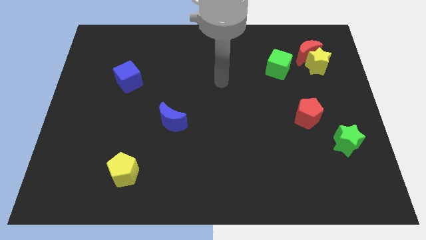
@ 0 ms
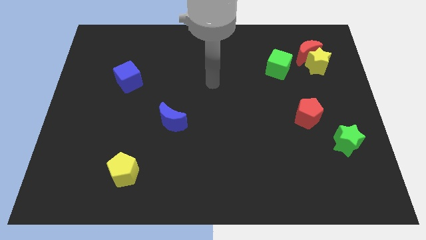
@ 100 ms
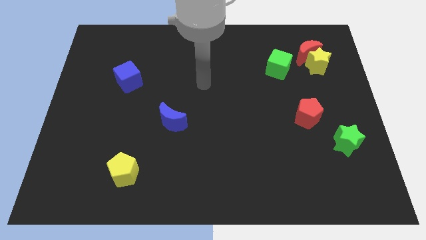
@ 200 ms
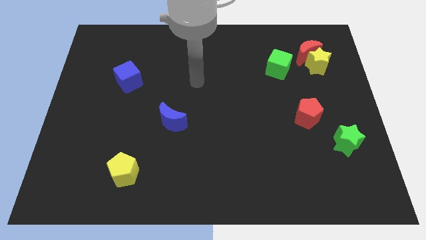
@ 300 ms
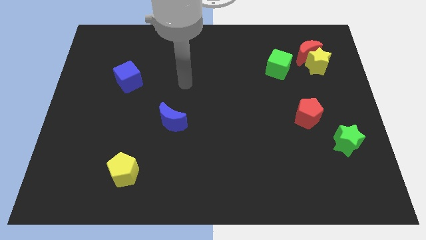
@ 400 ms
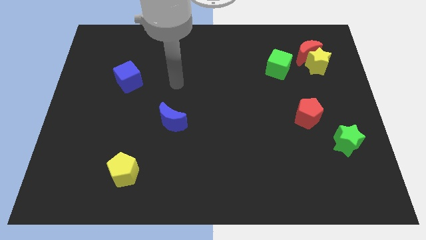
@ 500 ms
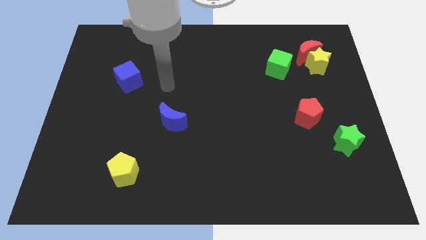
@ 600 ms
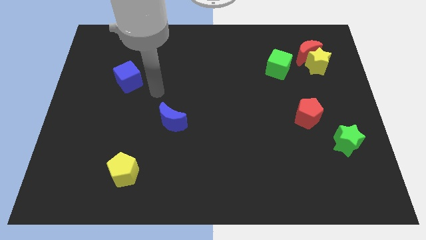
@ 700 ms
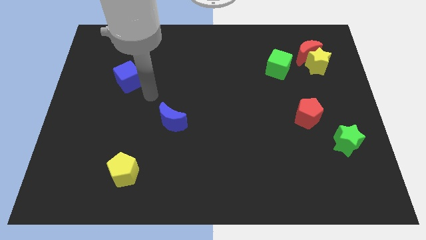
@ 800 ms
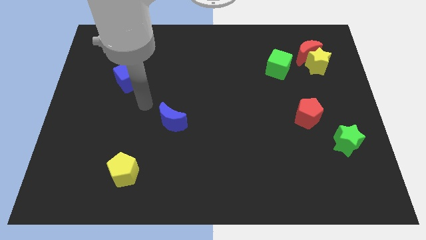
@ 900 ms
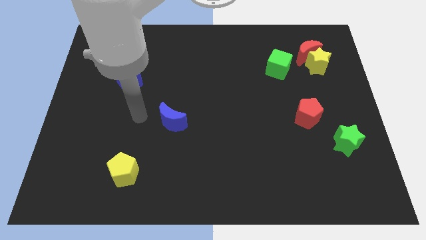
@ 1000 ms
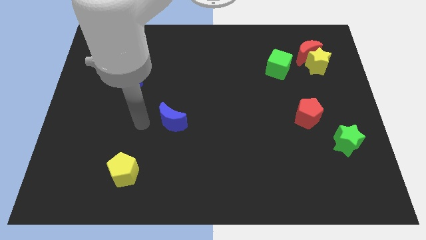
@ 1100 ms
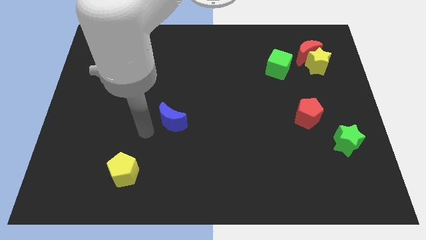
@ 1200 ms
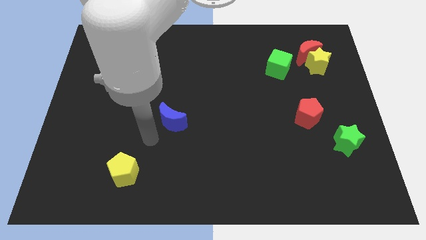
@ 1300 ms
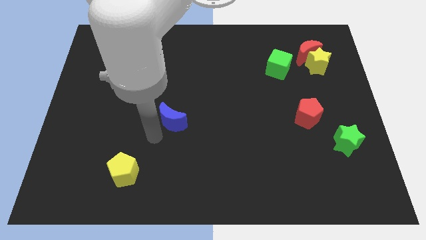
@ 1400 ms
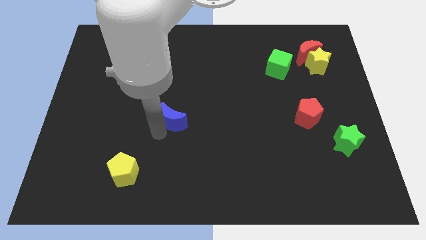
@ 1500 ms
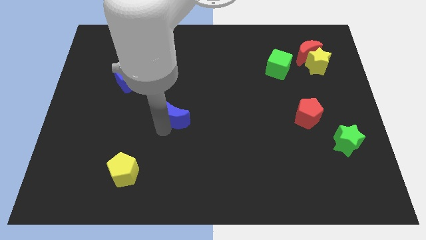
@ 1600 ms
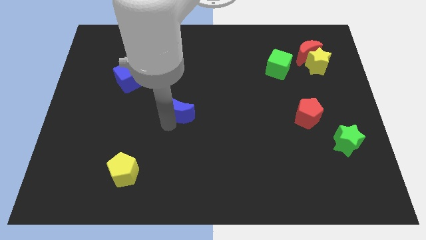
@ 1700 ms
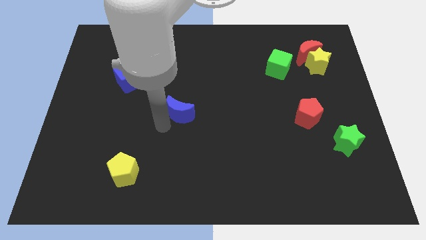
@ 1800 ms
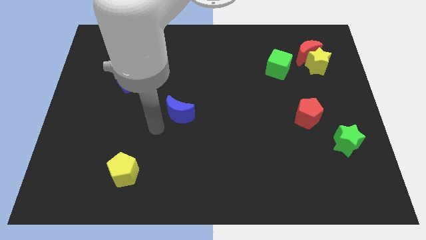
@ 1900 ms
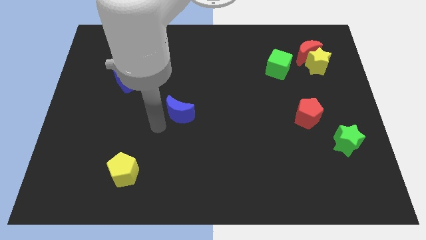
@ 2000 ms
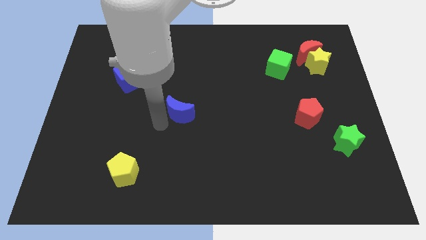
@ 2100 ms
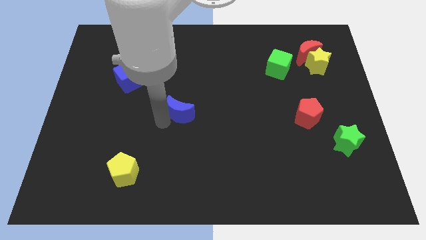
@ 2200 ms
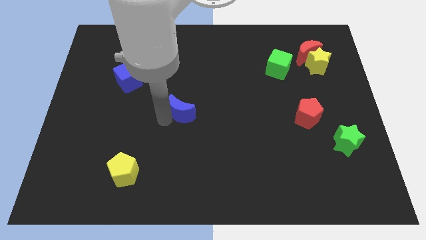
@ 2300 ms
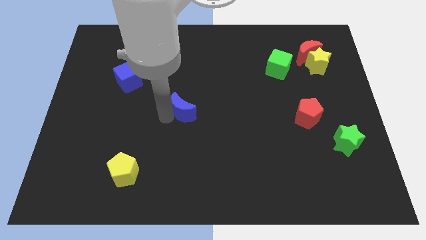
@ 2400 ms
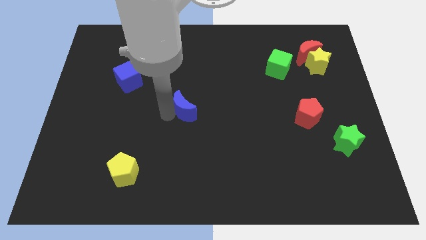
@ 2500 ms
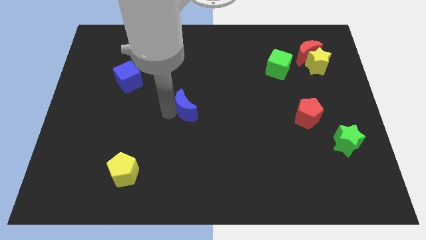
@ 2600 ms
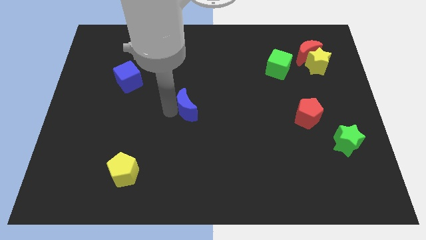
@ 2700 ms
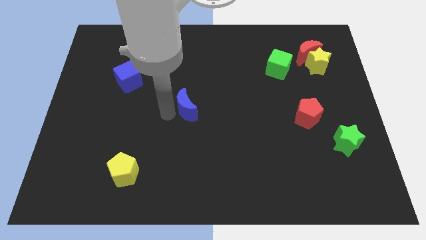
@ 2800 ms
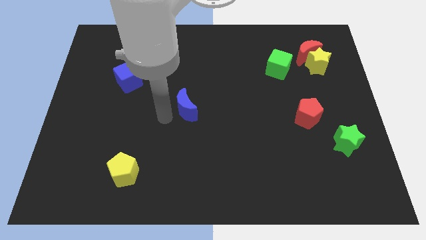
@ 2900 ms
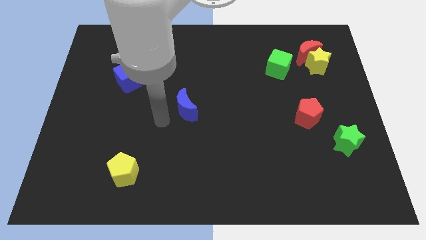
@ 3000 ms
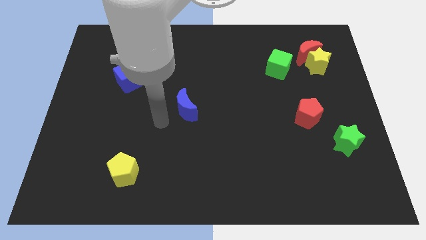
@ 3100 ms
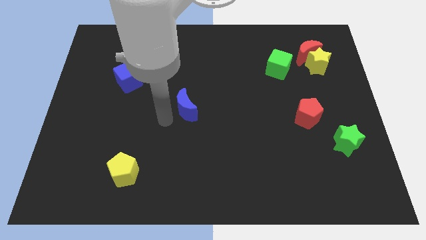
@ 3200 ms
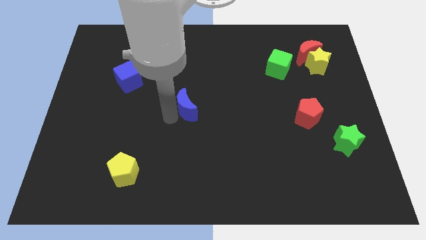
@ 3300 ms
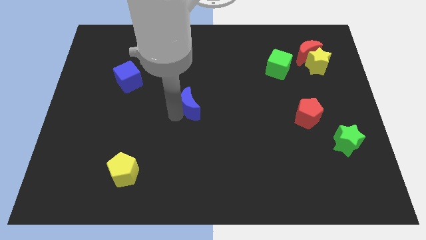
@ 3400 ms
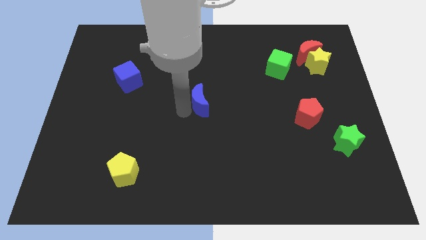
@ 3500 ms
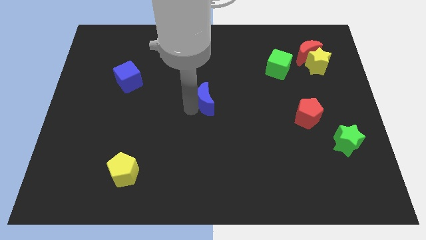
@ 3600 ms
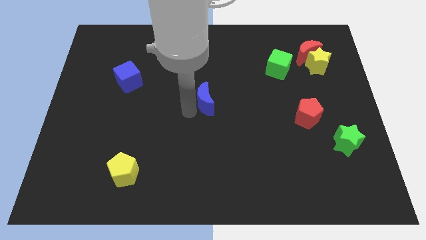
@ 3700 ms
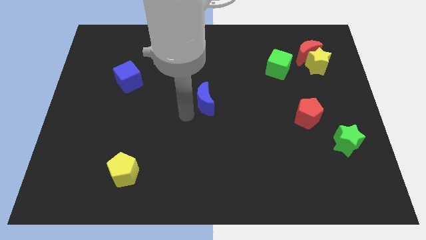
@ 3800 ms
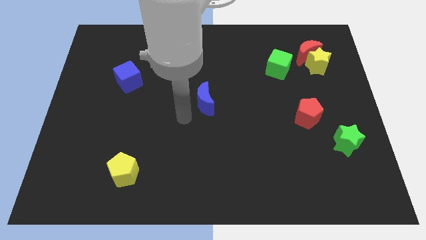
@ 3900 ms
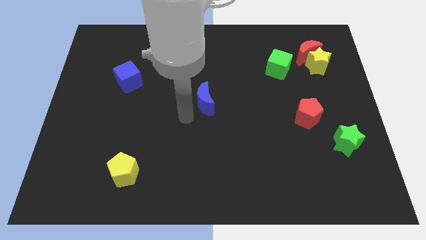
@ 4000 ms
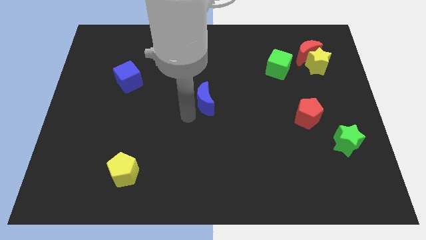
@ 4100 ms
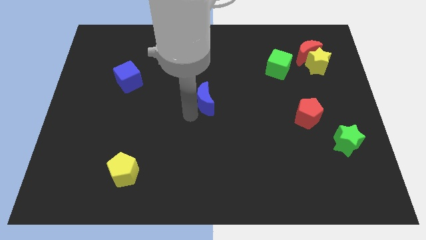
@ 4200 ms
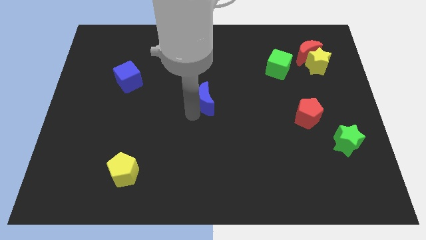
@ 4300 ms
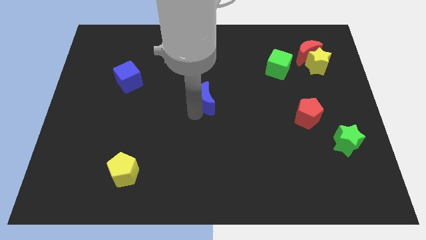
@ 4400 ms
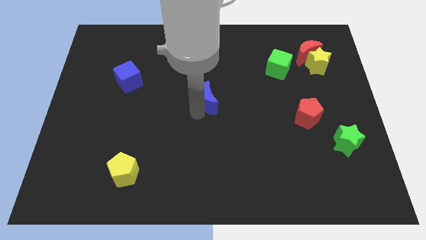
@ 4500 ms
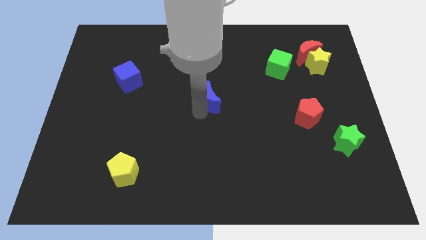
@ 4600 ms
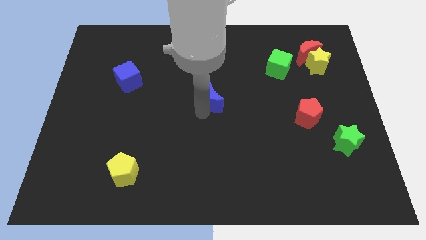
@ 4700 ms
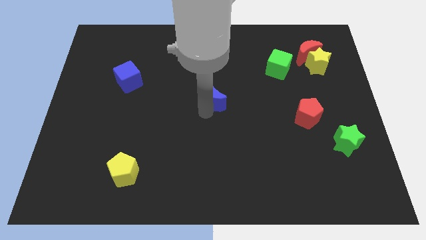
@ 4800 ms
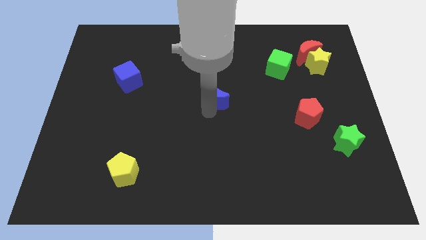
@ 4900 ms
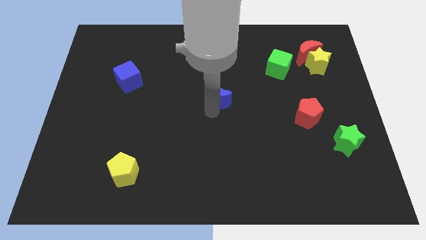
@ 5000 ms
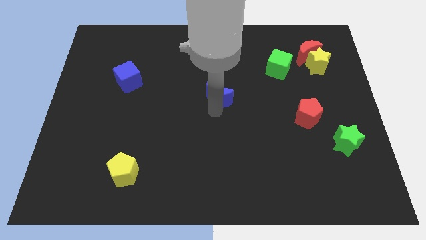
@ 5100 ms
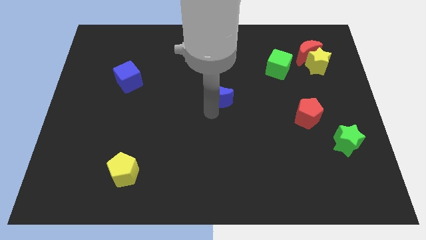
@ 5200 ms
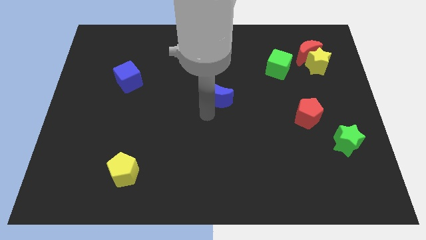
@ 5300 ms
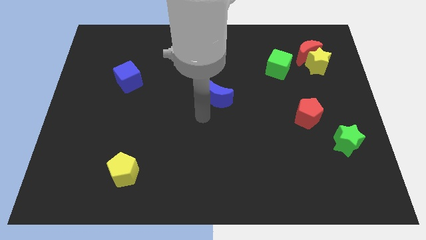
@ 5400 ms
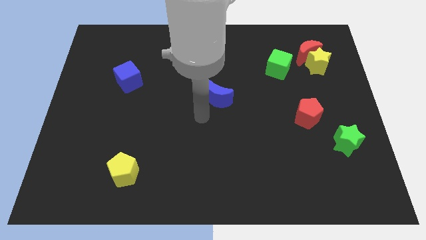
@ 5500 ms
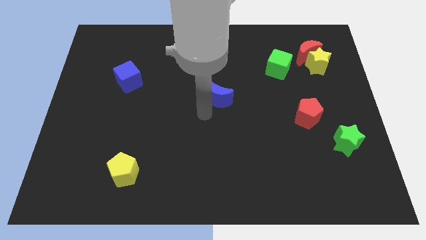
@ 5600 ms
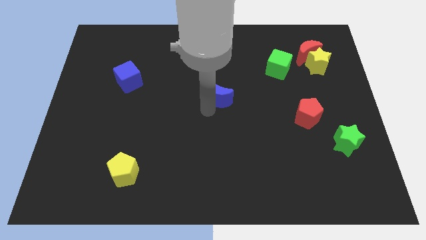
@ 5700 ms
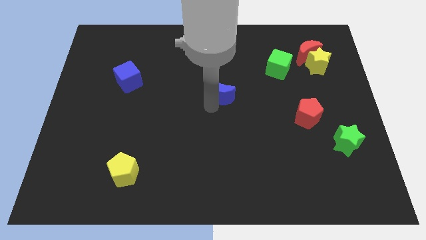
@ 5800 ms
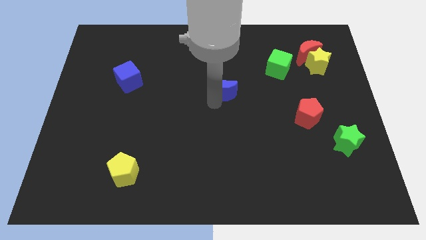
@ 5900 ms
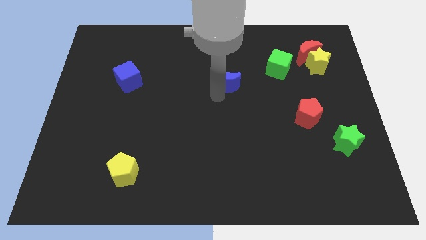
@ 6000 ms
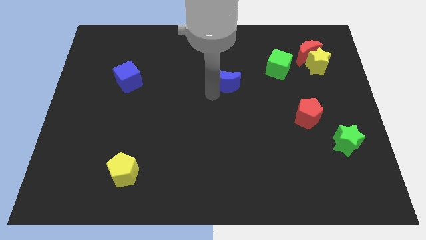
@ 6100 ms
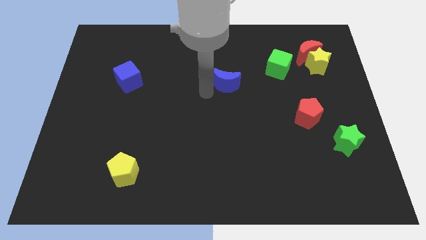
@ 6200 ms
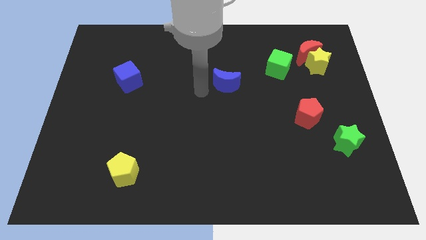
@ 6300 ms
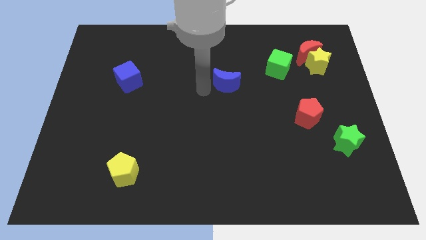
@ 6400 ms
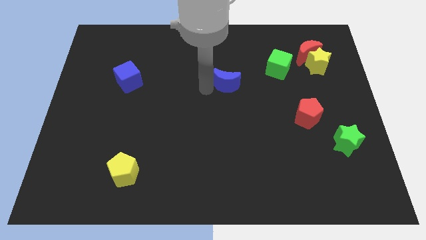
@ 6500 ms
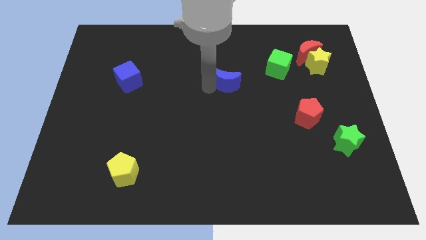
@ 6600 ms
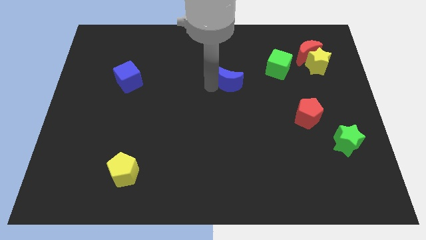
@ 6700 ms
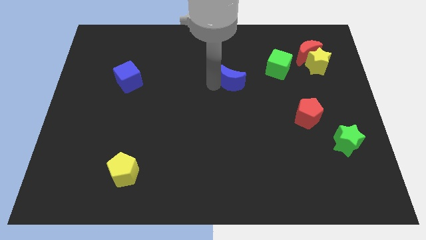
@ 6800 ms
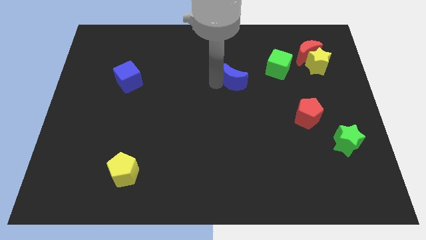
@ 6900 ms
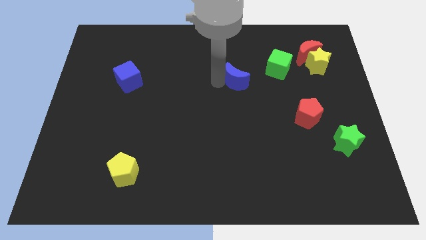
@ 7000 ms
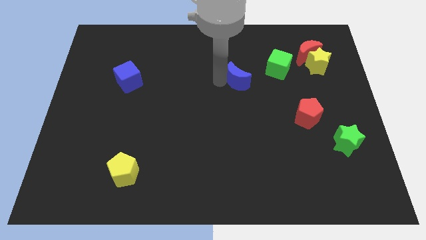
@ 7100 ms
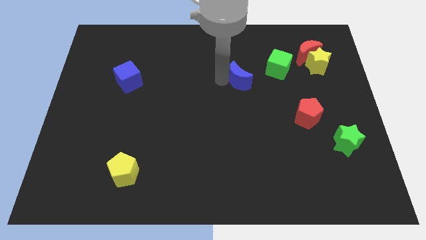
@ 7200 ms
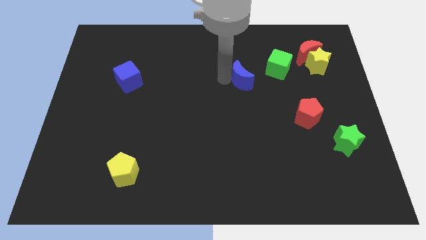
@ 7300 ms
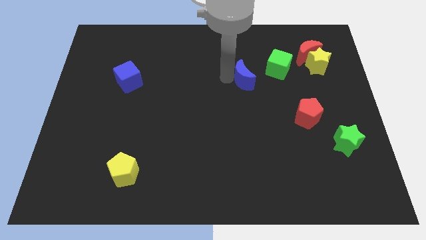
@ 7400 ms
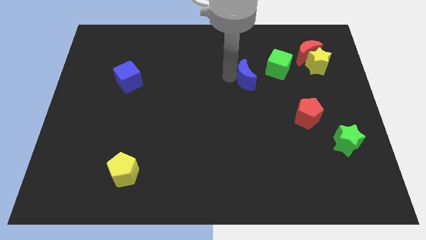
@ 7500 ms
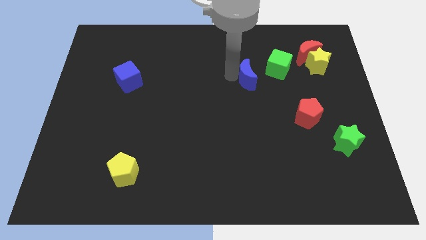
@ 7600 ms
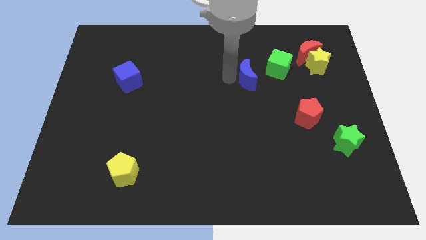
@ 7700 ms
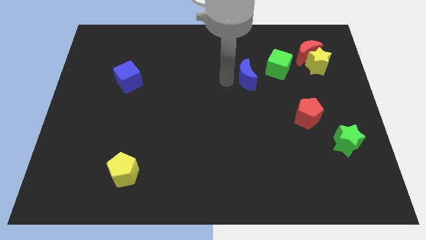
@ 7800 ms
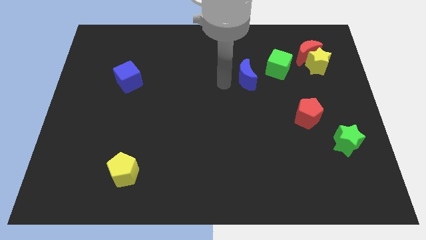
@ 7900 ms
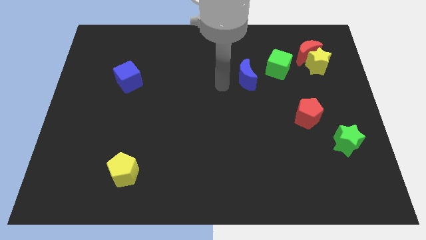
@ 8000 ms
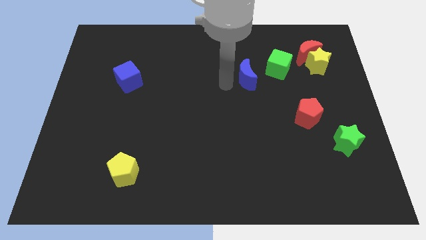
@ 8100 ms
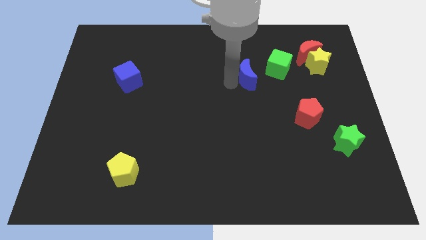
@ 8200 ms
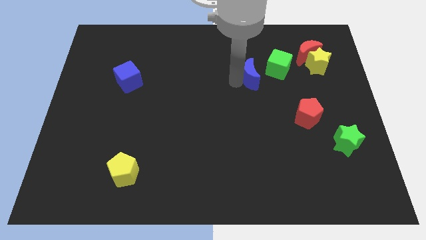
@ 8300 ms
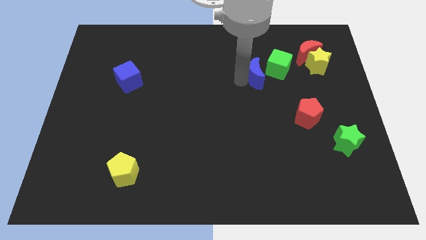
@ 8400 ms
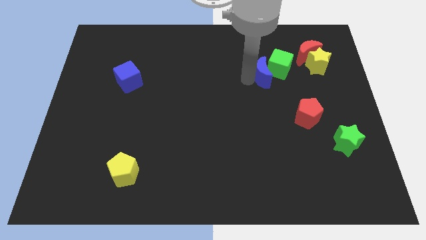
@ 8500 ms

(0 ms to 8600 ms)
push the blue moon towards the green cube
